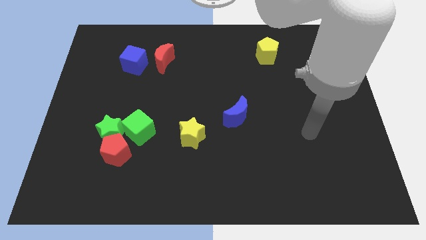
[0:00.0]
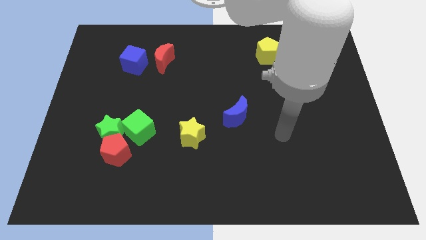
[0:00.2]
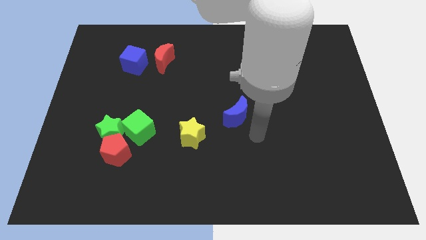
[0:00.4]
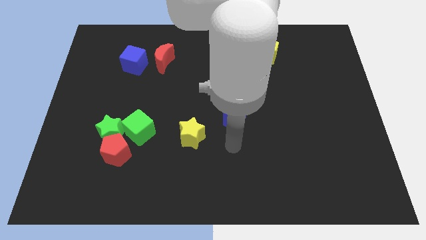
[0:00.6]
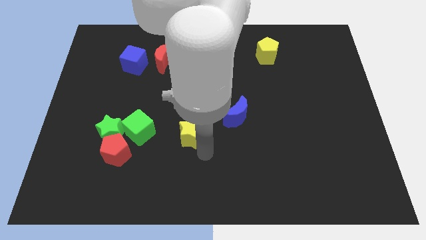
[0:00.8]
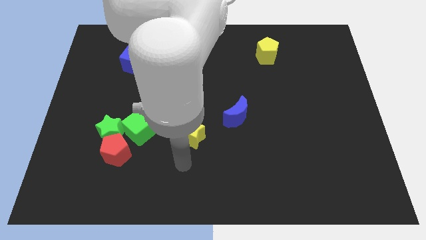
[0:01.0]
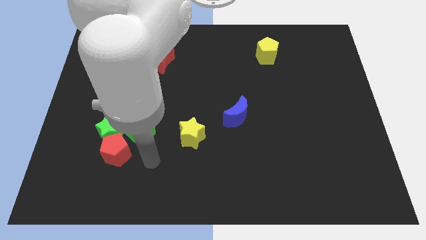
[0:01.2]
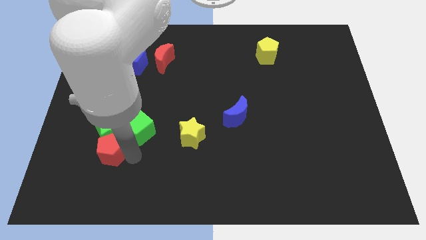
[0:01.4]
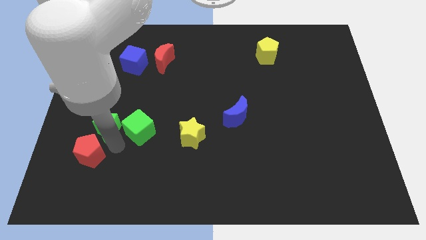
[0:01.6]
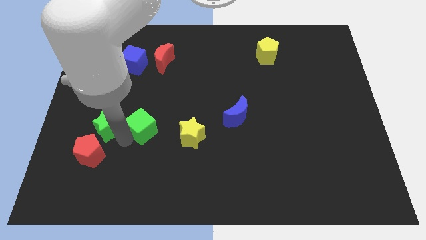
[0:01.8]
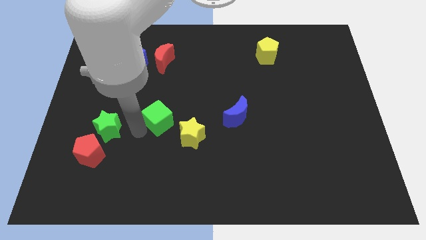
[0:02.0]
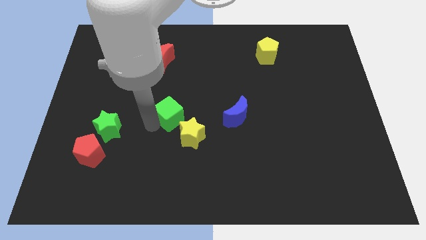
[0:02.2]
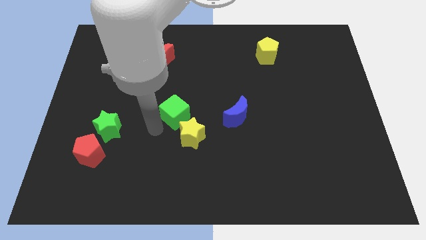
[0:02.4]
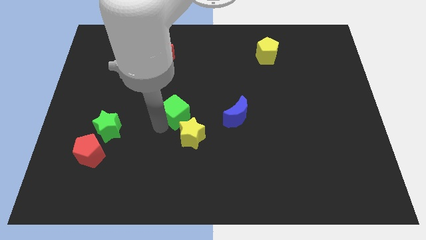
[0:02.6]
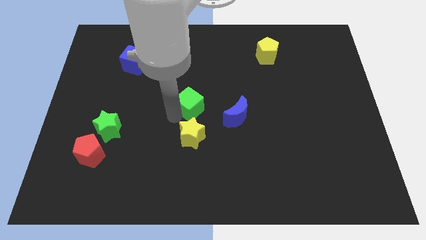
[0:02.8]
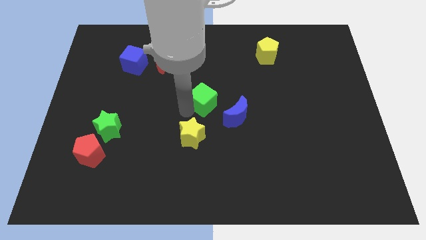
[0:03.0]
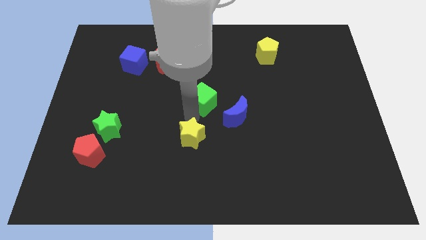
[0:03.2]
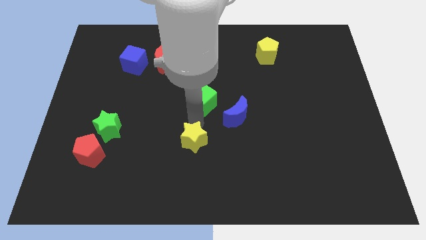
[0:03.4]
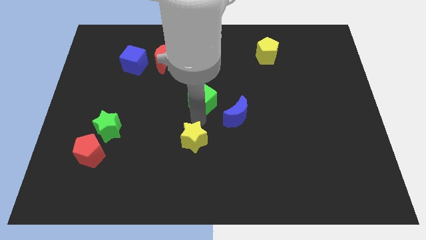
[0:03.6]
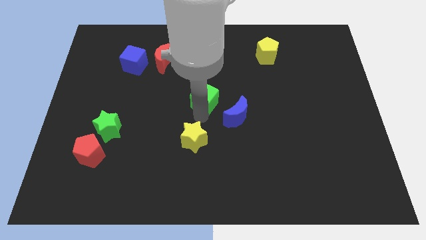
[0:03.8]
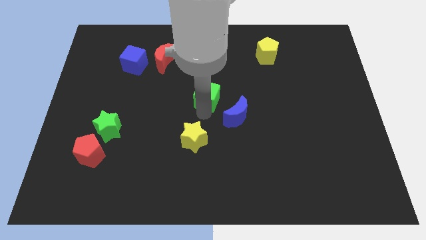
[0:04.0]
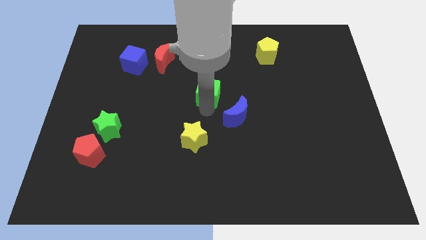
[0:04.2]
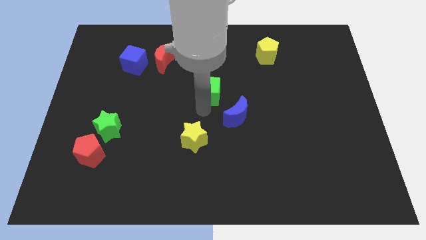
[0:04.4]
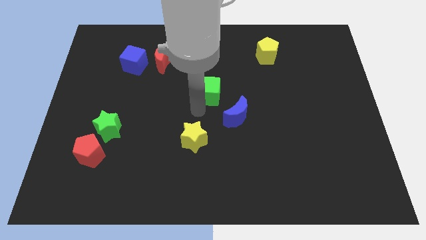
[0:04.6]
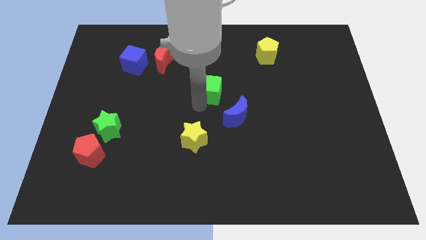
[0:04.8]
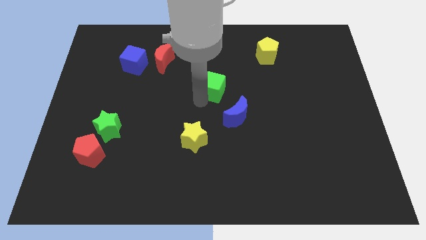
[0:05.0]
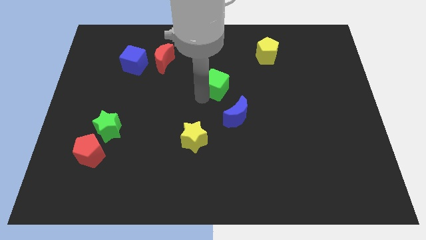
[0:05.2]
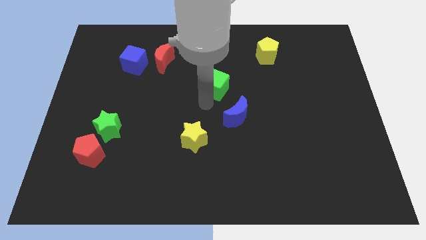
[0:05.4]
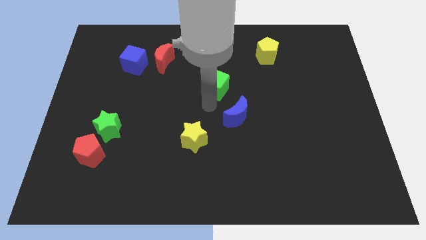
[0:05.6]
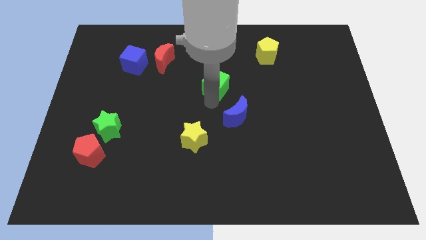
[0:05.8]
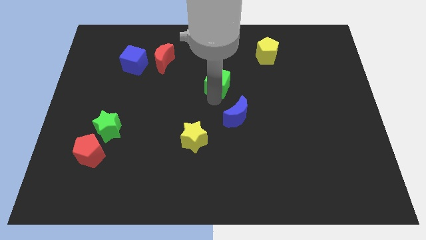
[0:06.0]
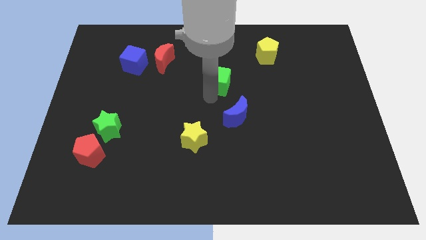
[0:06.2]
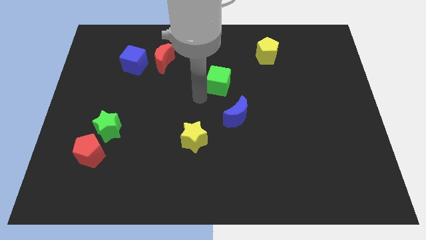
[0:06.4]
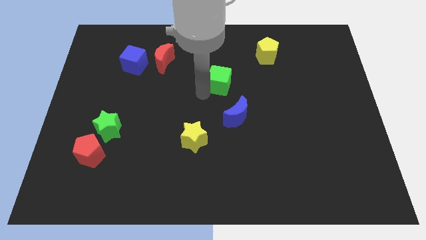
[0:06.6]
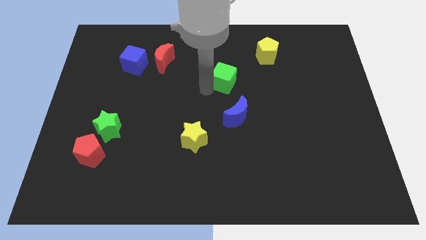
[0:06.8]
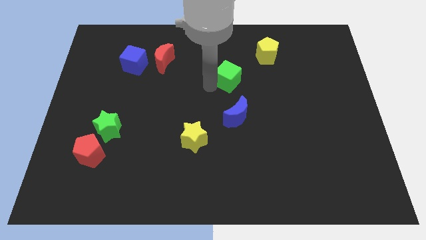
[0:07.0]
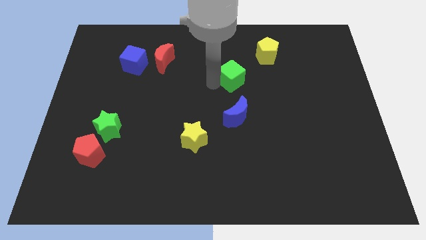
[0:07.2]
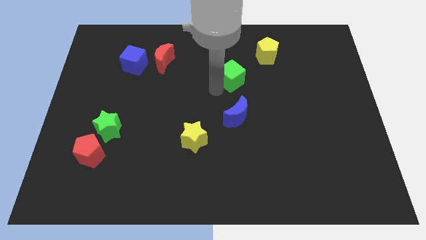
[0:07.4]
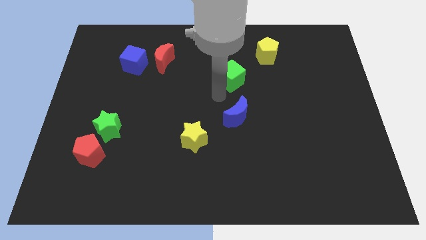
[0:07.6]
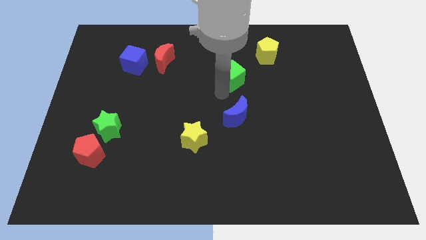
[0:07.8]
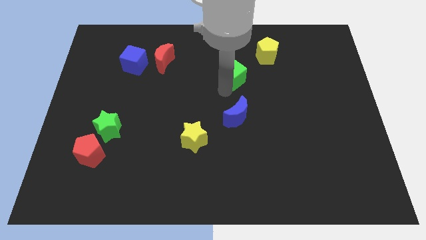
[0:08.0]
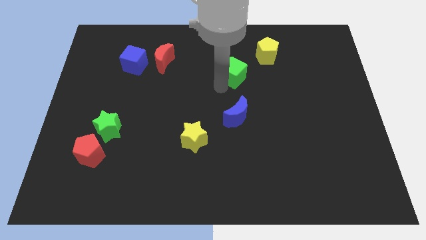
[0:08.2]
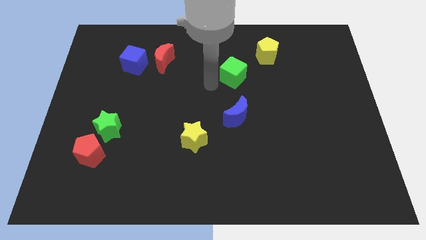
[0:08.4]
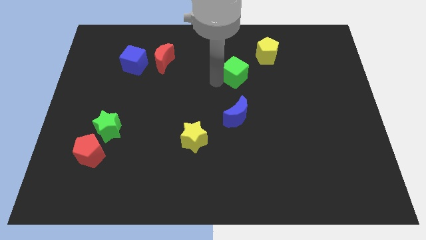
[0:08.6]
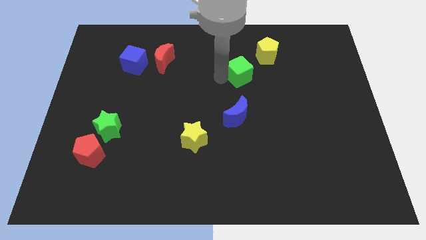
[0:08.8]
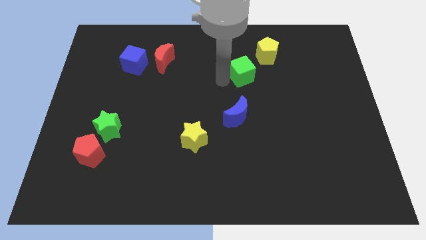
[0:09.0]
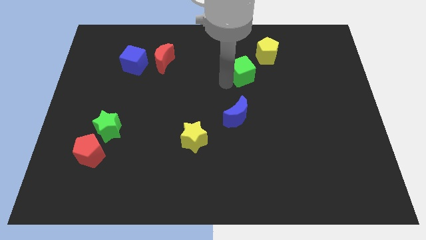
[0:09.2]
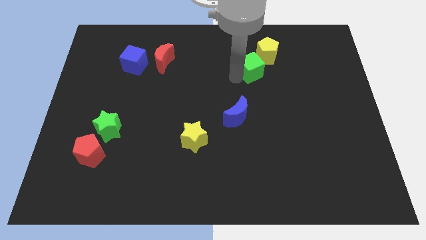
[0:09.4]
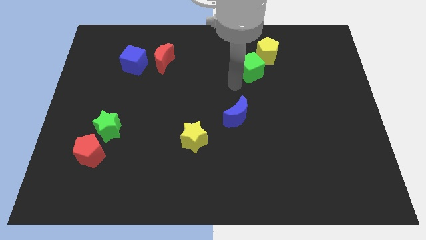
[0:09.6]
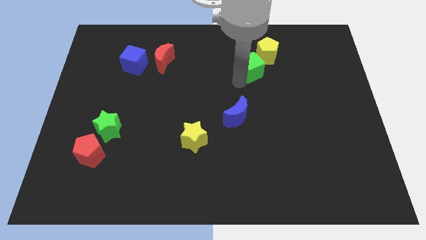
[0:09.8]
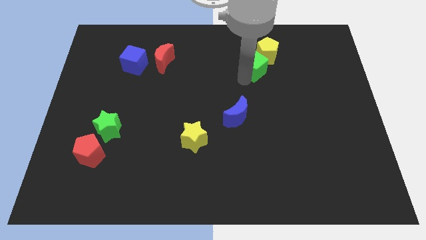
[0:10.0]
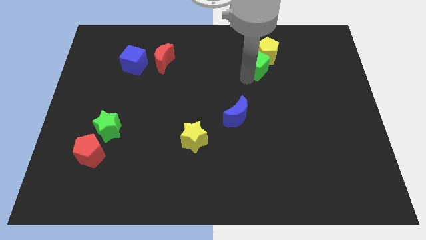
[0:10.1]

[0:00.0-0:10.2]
slide the green cube next to the yellow pentagon

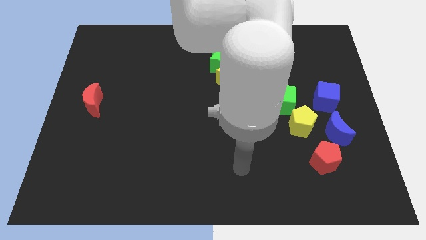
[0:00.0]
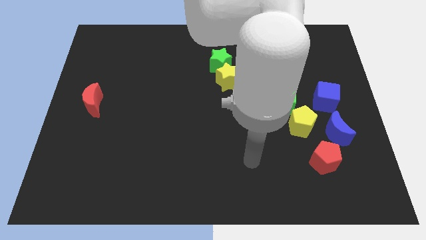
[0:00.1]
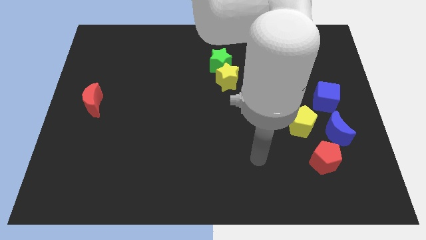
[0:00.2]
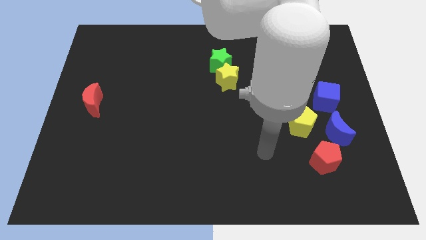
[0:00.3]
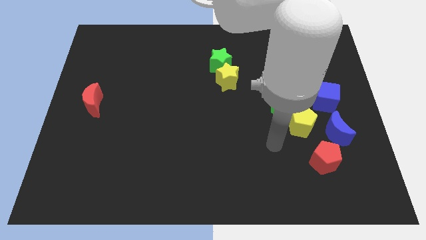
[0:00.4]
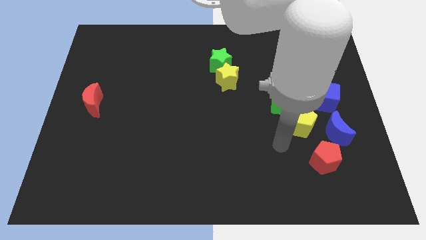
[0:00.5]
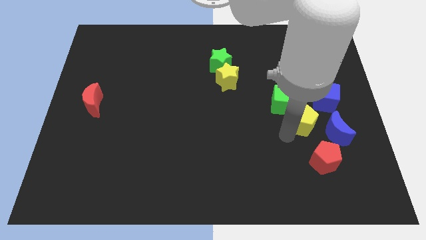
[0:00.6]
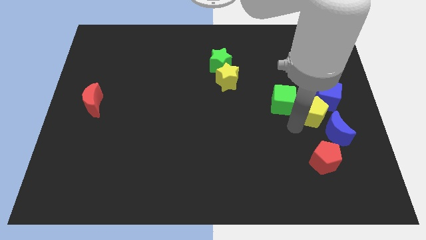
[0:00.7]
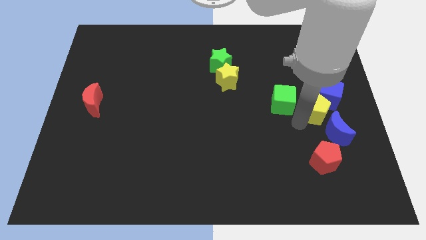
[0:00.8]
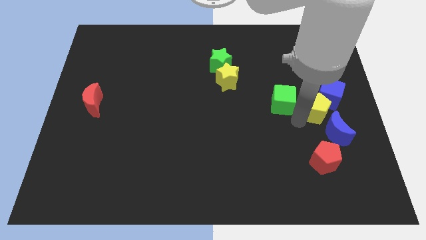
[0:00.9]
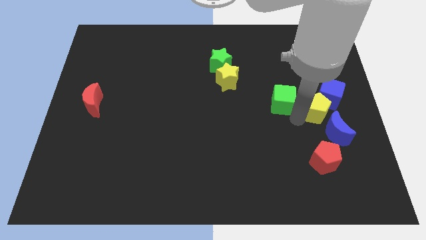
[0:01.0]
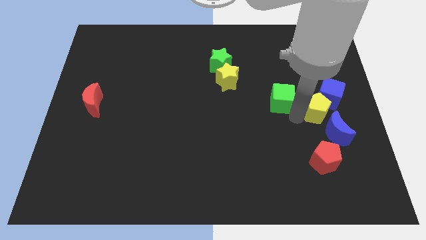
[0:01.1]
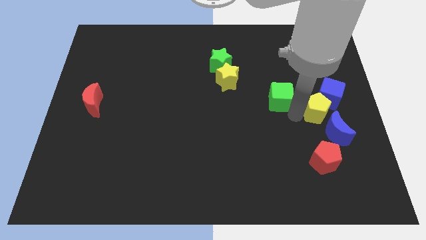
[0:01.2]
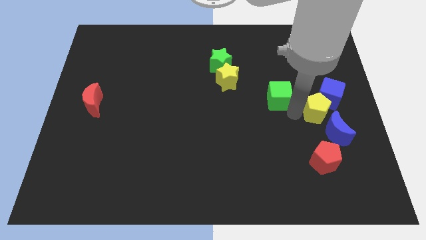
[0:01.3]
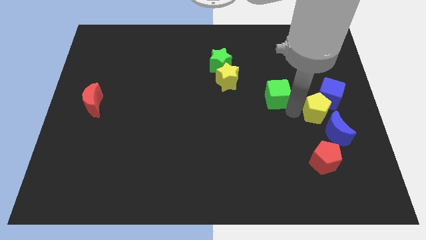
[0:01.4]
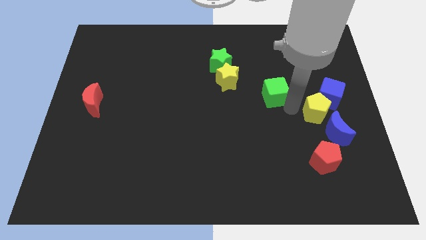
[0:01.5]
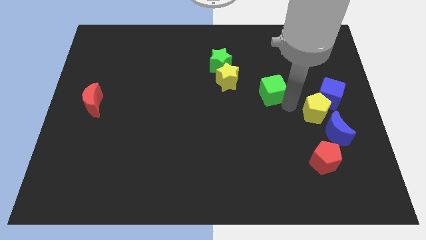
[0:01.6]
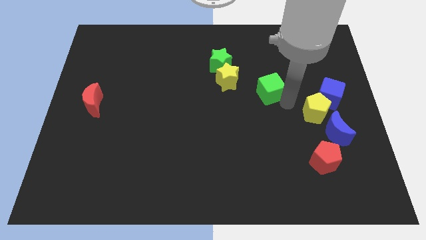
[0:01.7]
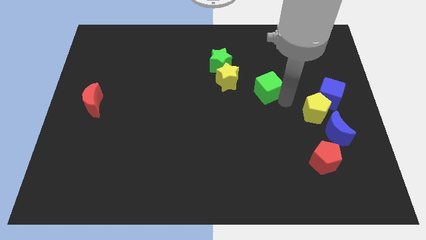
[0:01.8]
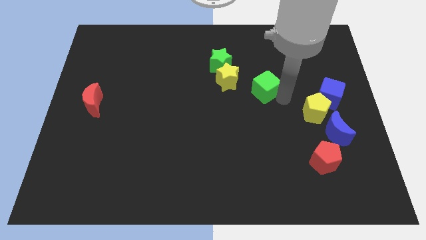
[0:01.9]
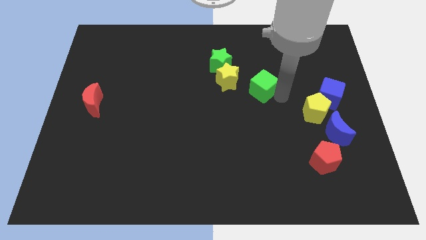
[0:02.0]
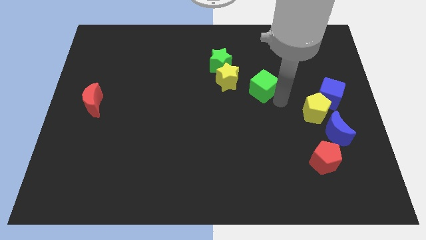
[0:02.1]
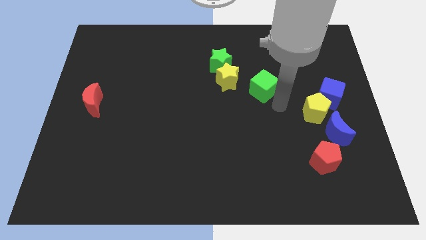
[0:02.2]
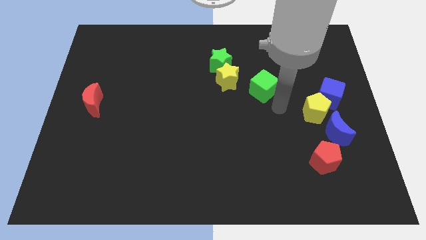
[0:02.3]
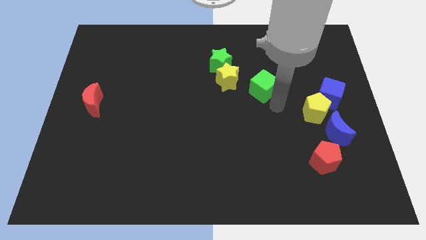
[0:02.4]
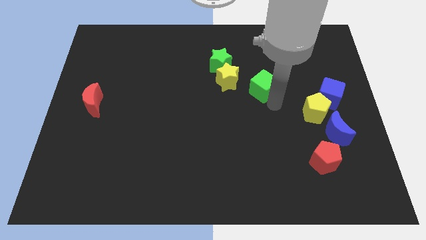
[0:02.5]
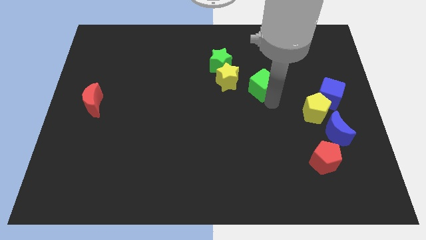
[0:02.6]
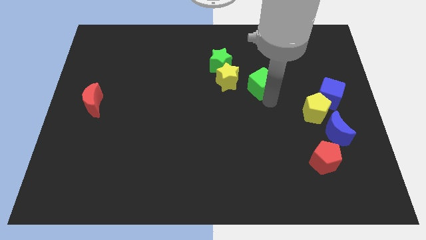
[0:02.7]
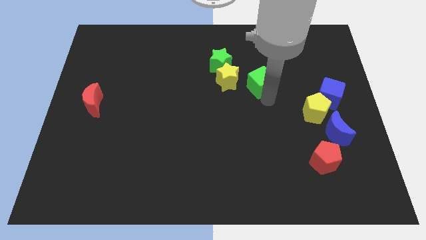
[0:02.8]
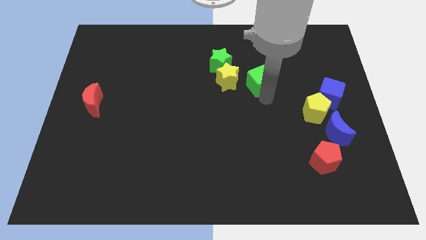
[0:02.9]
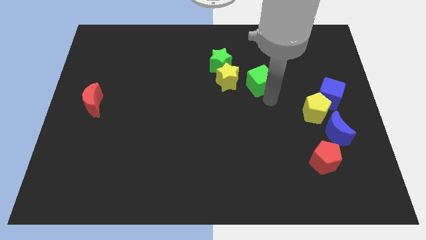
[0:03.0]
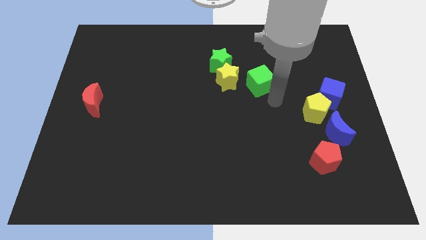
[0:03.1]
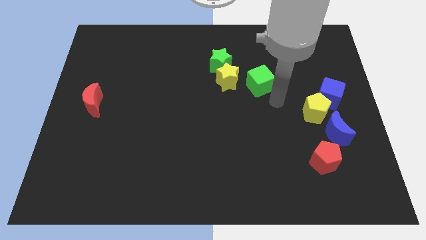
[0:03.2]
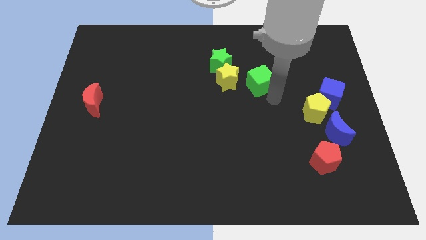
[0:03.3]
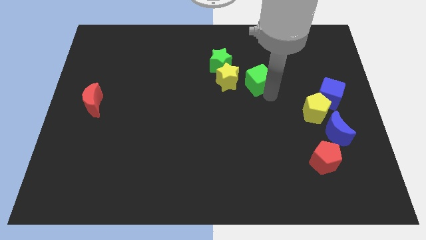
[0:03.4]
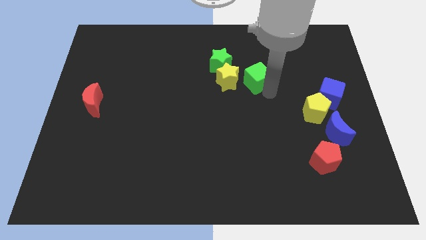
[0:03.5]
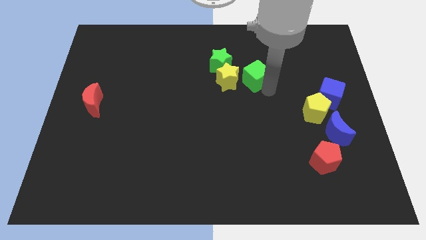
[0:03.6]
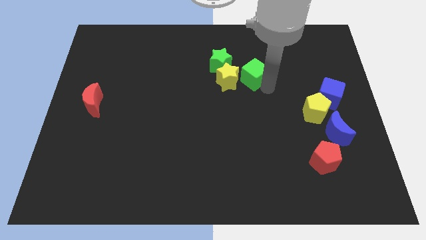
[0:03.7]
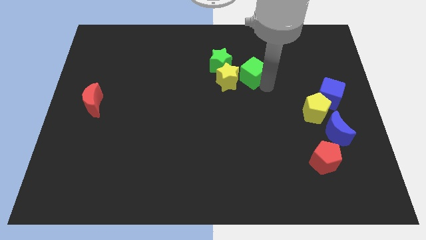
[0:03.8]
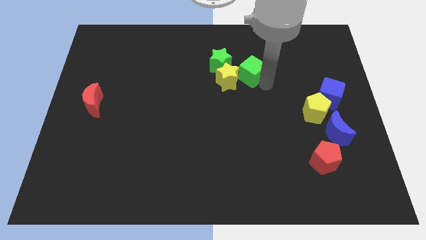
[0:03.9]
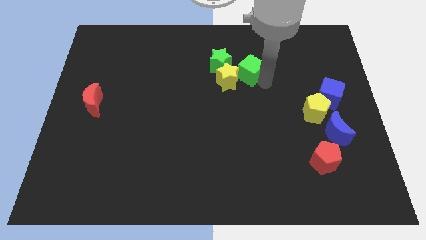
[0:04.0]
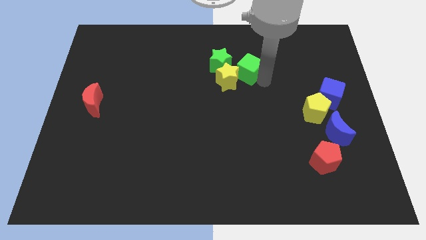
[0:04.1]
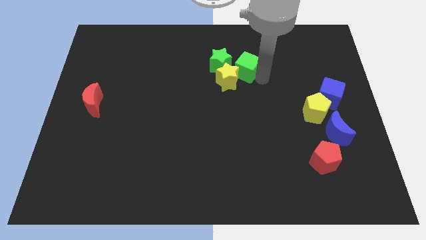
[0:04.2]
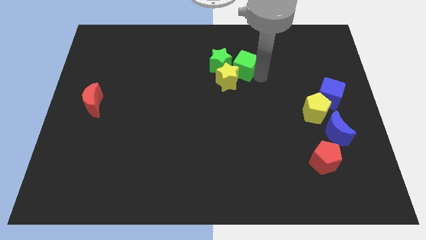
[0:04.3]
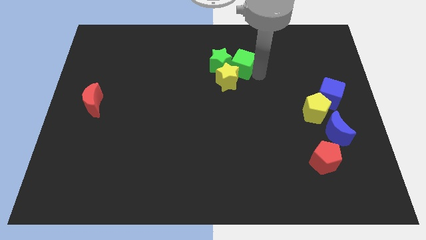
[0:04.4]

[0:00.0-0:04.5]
slide the green cube next to the green star
